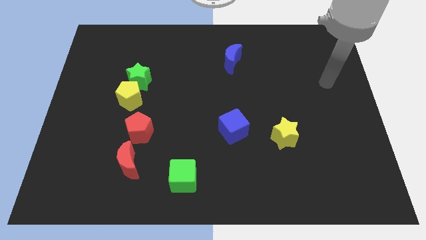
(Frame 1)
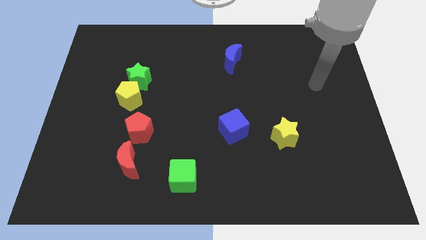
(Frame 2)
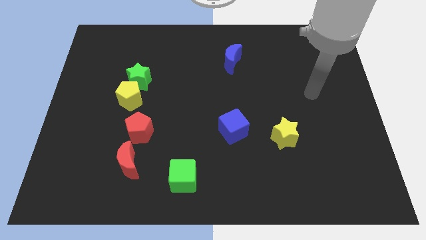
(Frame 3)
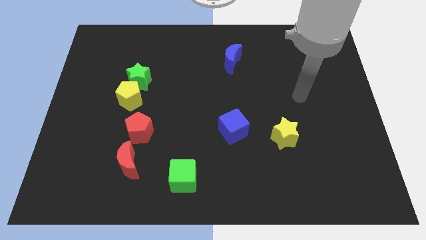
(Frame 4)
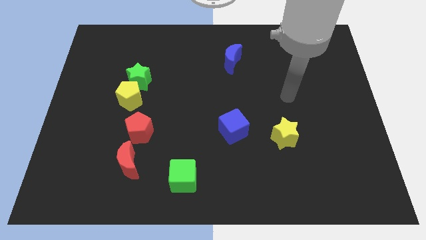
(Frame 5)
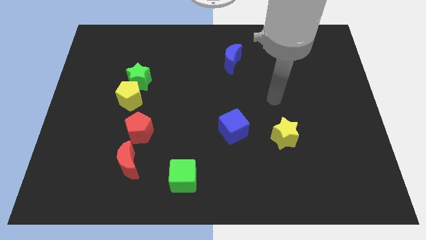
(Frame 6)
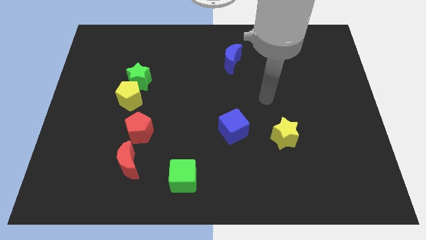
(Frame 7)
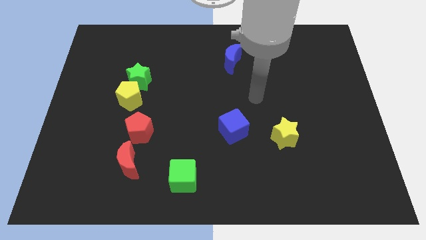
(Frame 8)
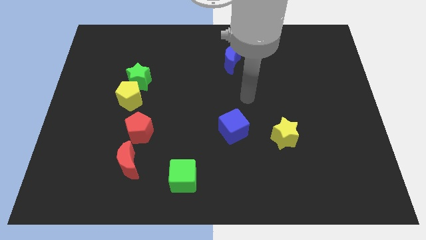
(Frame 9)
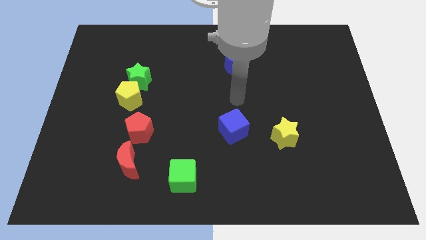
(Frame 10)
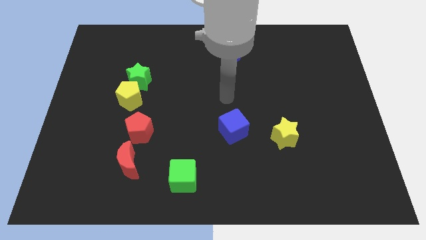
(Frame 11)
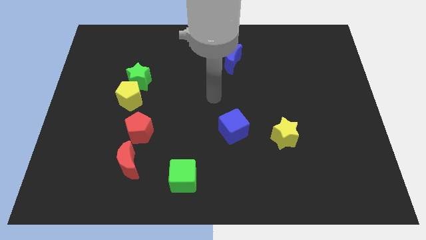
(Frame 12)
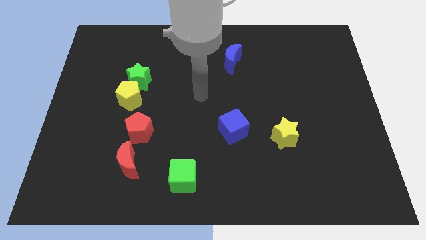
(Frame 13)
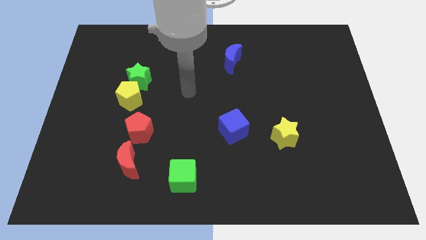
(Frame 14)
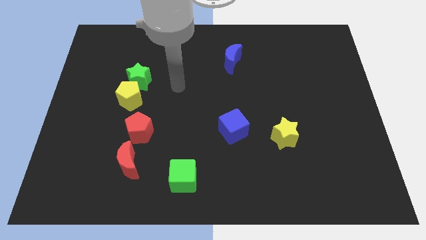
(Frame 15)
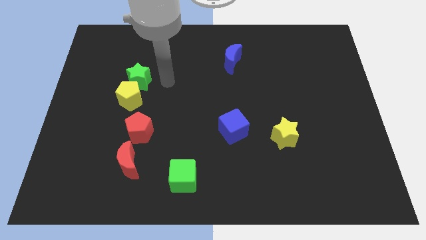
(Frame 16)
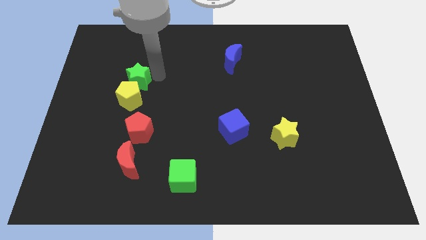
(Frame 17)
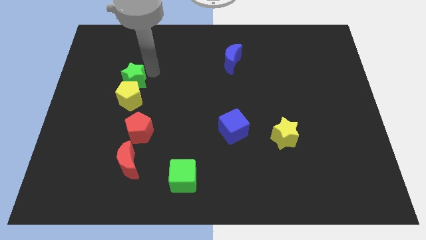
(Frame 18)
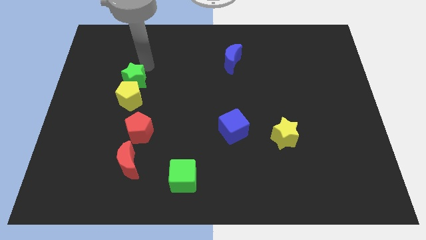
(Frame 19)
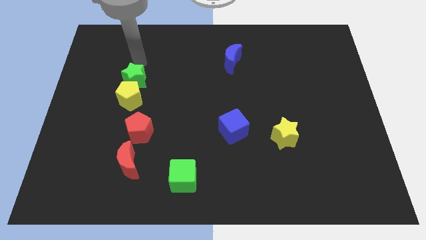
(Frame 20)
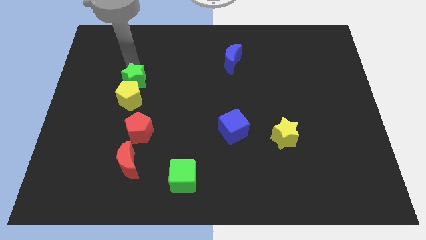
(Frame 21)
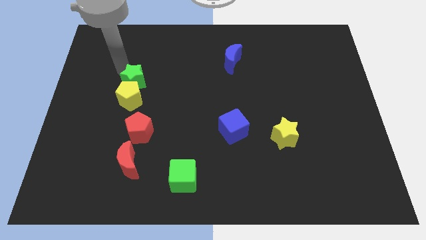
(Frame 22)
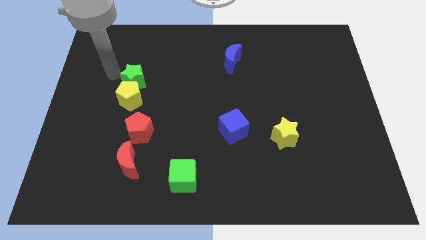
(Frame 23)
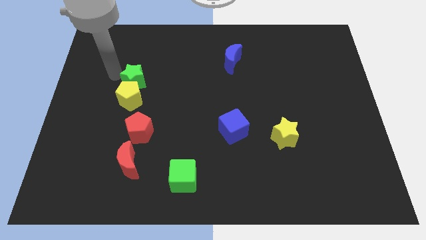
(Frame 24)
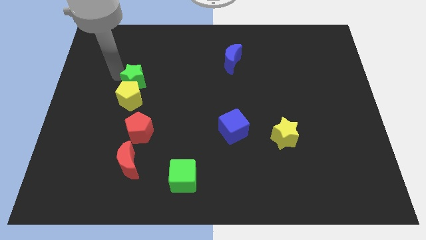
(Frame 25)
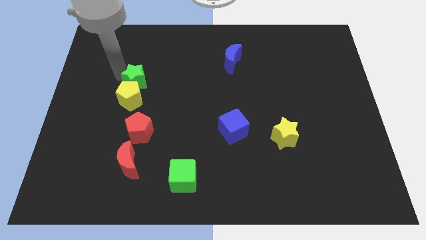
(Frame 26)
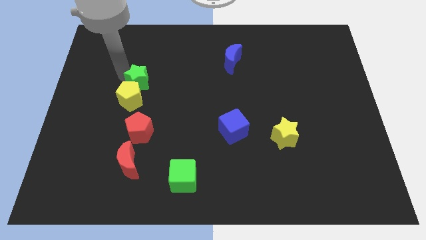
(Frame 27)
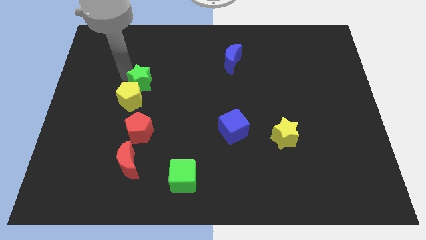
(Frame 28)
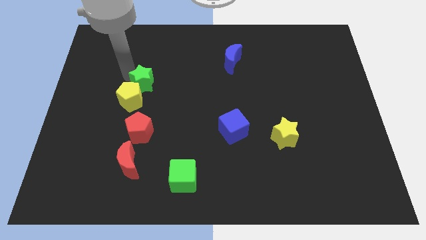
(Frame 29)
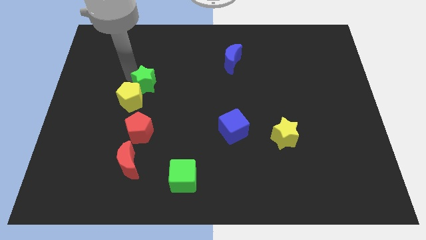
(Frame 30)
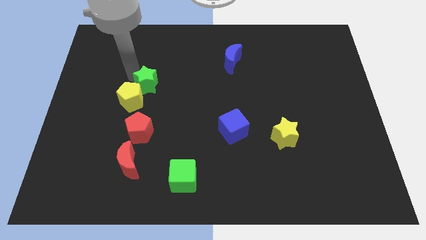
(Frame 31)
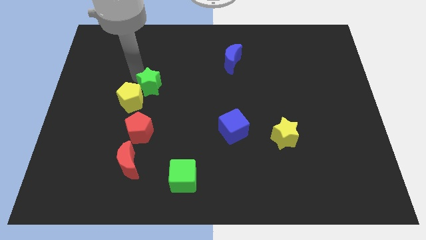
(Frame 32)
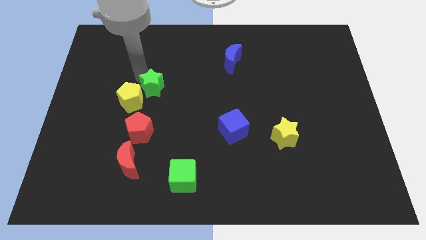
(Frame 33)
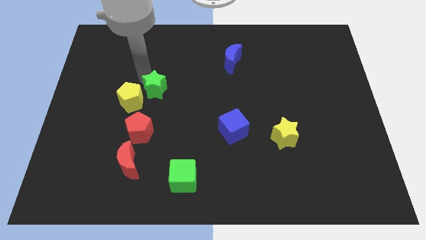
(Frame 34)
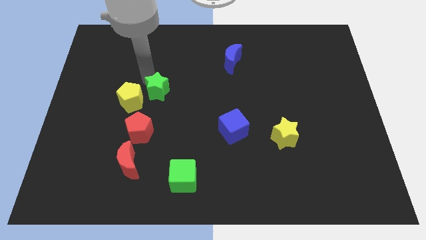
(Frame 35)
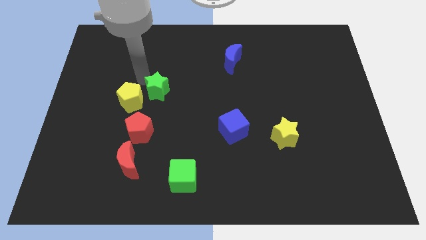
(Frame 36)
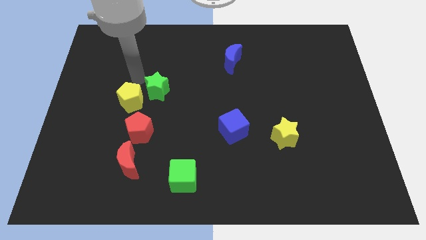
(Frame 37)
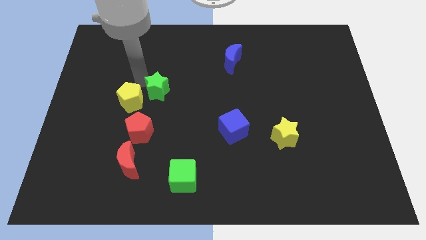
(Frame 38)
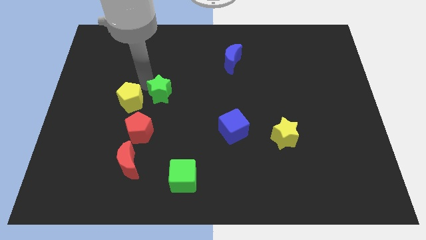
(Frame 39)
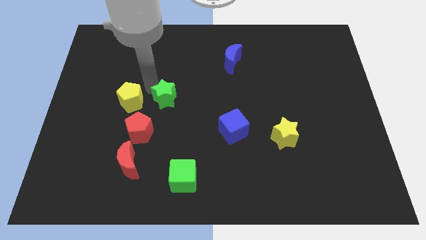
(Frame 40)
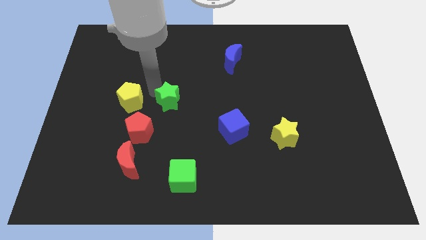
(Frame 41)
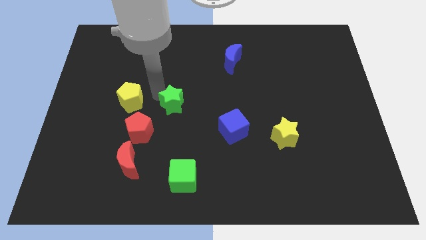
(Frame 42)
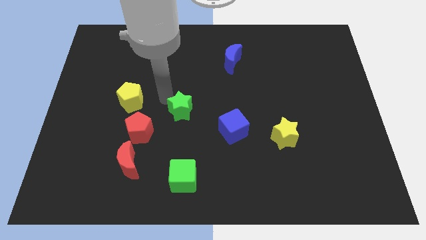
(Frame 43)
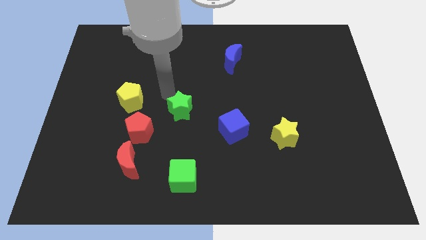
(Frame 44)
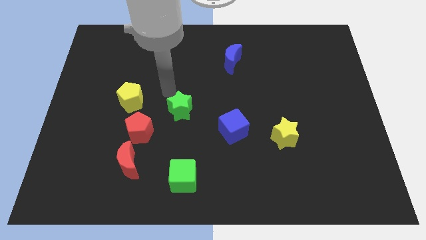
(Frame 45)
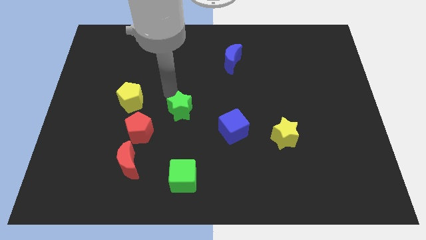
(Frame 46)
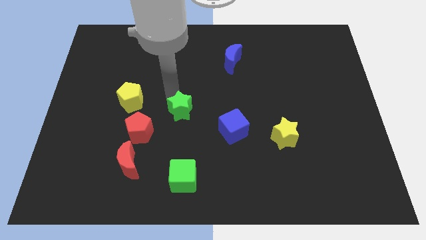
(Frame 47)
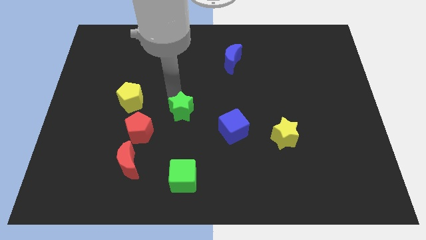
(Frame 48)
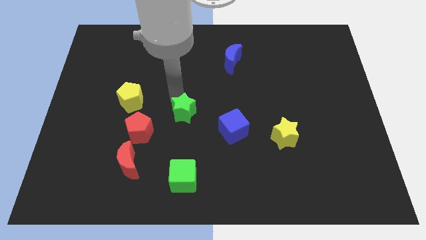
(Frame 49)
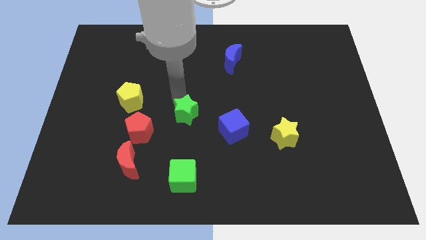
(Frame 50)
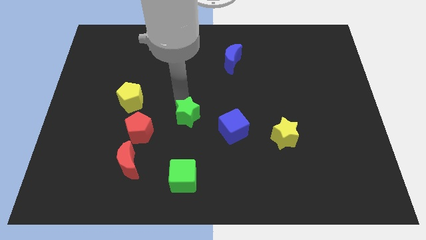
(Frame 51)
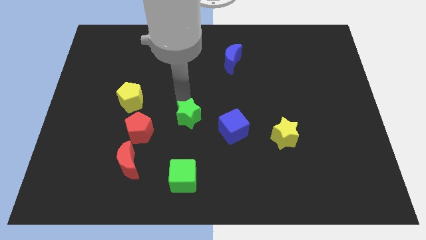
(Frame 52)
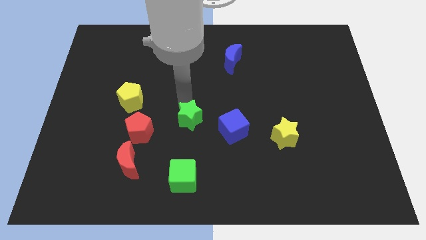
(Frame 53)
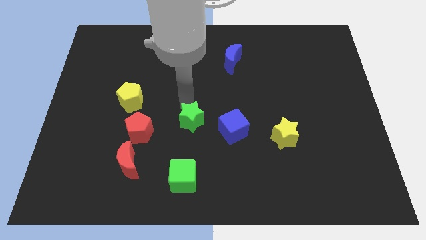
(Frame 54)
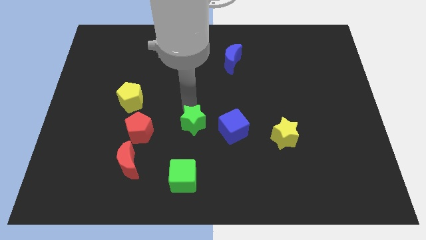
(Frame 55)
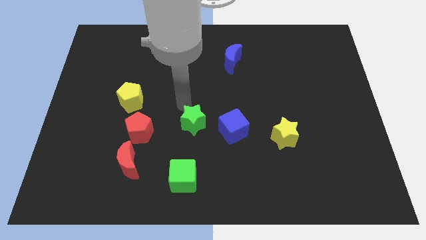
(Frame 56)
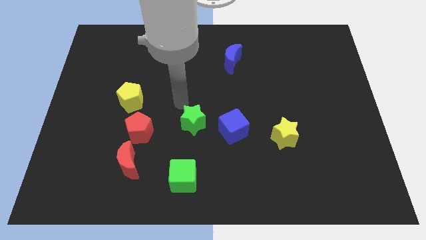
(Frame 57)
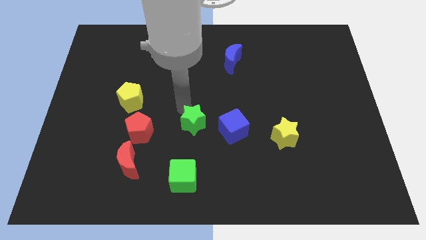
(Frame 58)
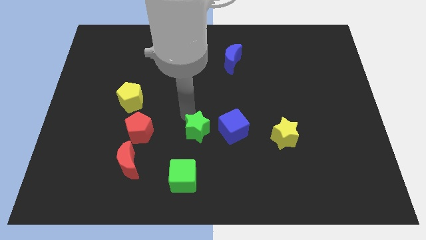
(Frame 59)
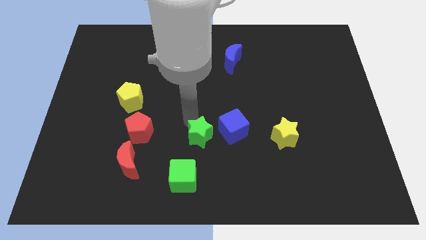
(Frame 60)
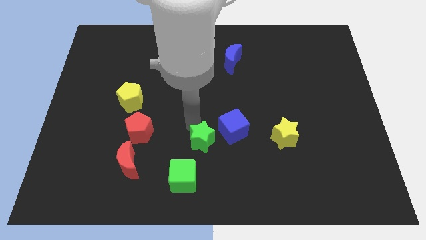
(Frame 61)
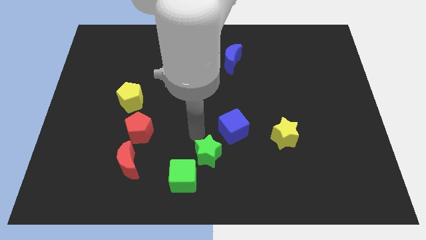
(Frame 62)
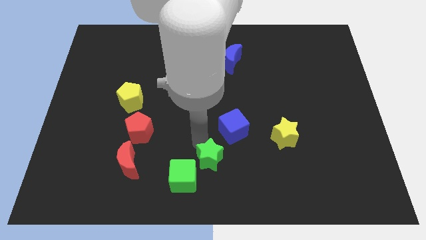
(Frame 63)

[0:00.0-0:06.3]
put the green star to the right side of the green cube
